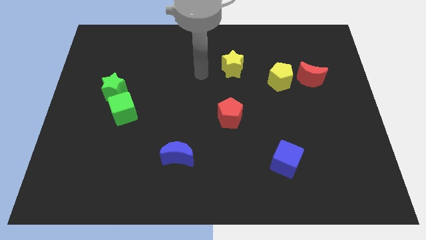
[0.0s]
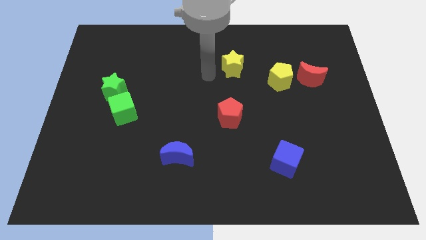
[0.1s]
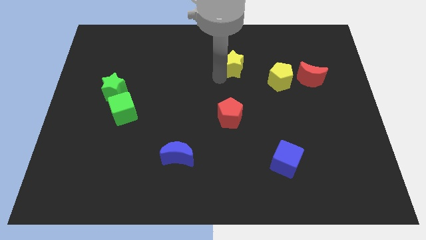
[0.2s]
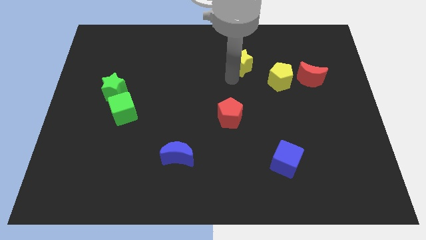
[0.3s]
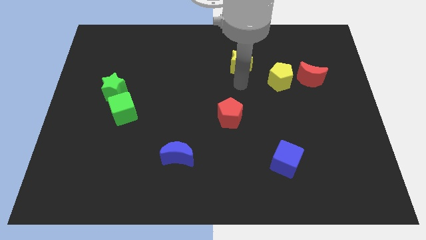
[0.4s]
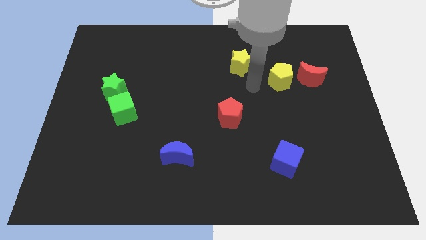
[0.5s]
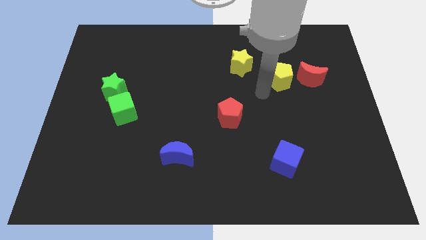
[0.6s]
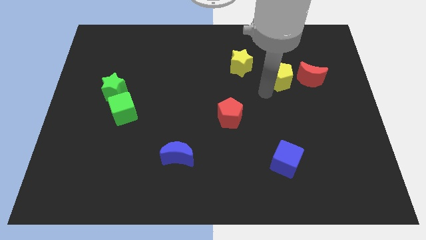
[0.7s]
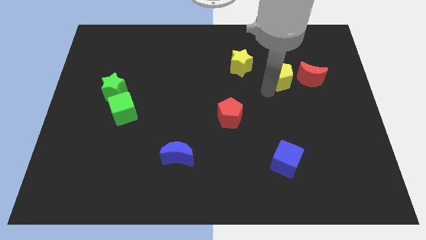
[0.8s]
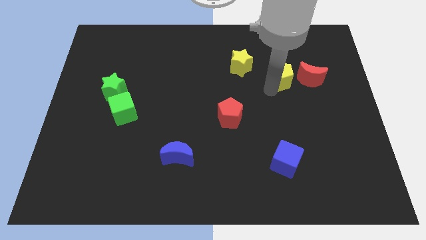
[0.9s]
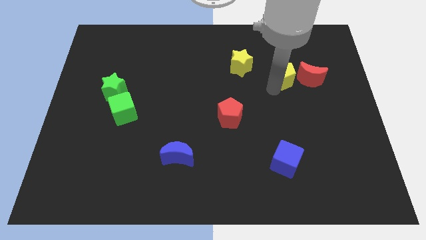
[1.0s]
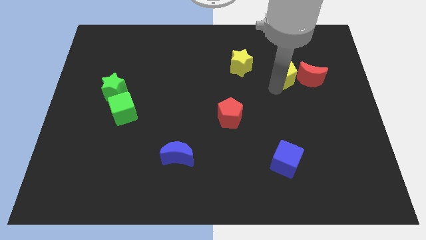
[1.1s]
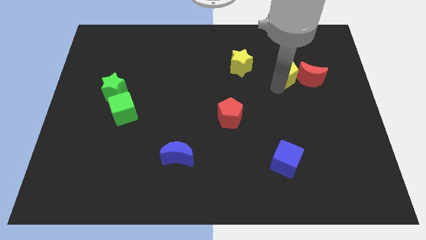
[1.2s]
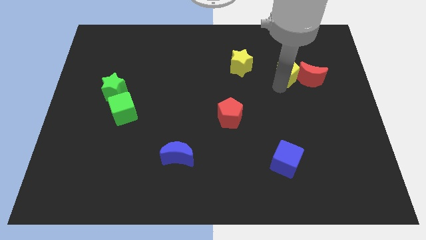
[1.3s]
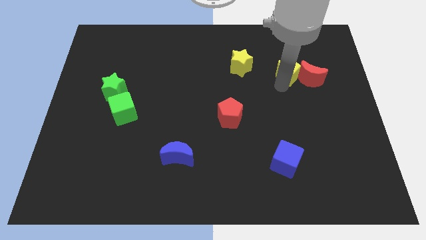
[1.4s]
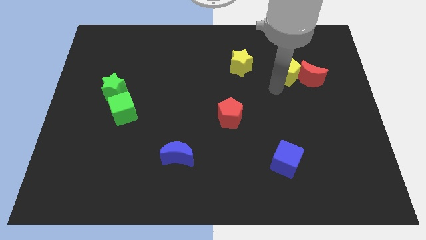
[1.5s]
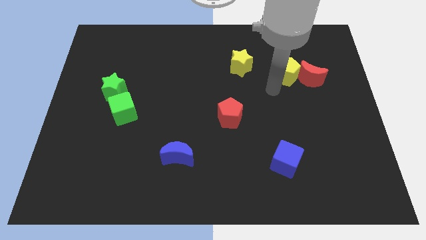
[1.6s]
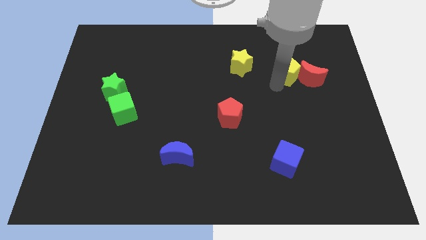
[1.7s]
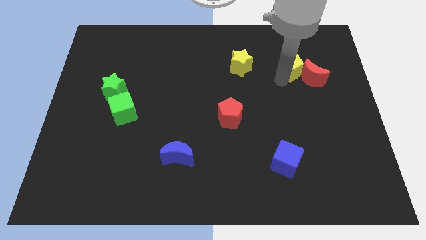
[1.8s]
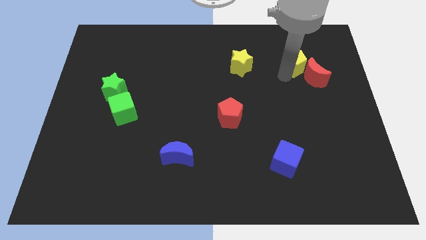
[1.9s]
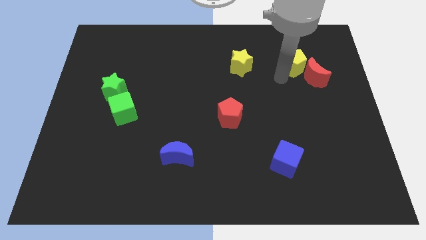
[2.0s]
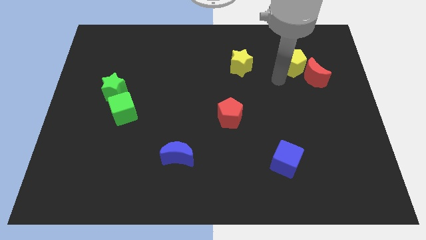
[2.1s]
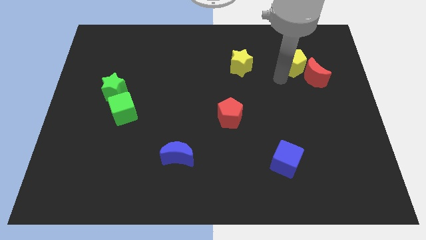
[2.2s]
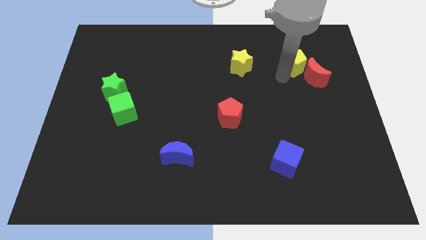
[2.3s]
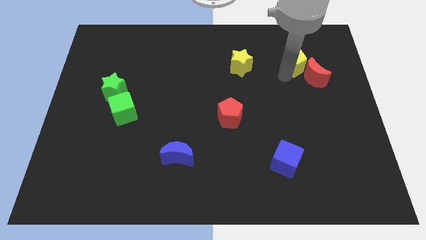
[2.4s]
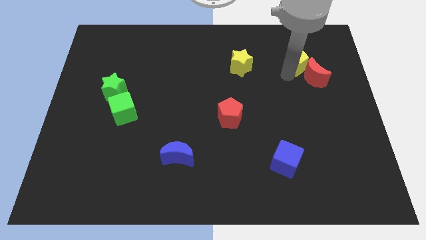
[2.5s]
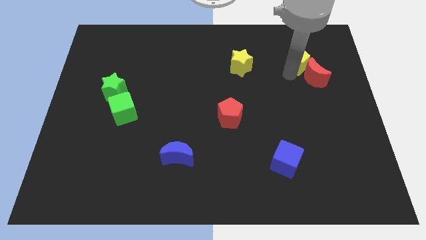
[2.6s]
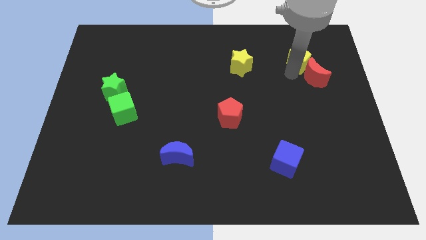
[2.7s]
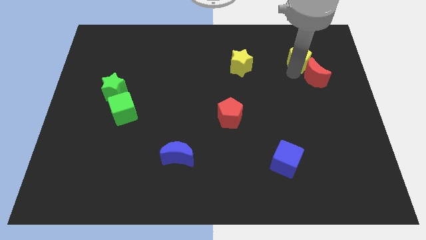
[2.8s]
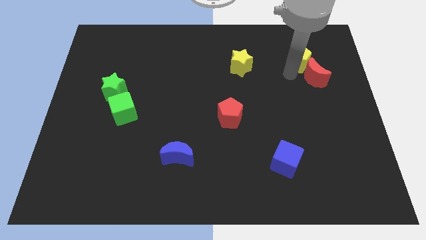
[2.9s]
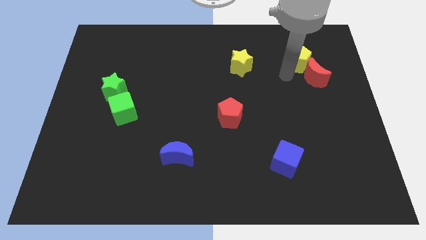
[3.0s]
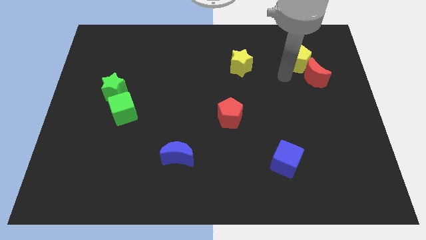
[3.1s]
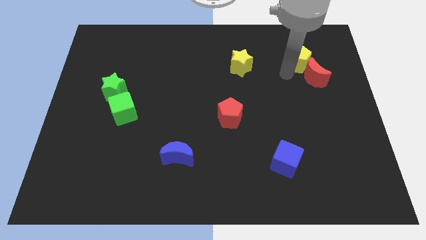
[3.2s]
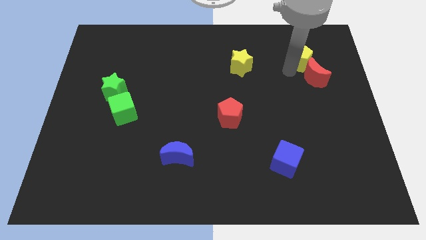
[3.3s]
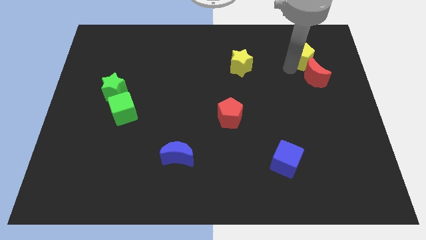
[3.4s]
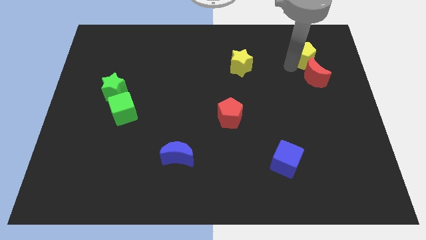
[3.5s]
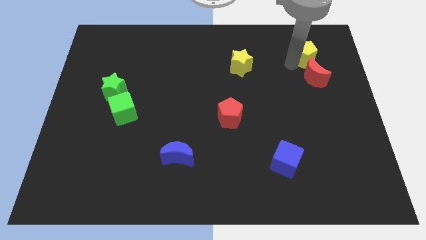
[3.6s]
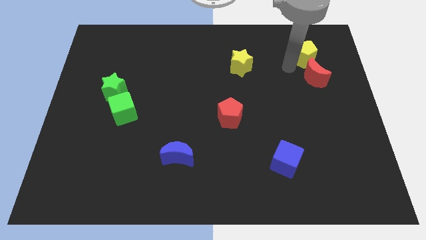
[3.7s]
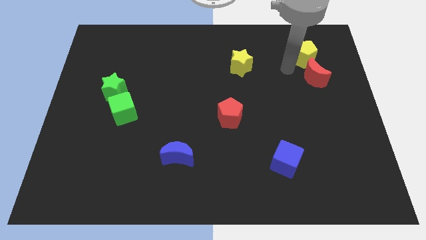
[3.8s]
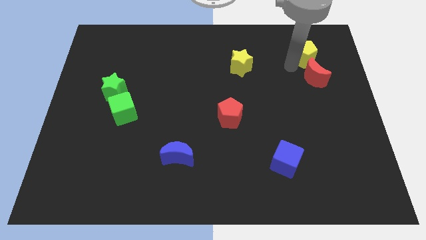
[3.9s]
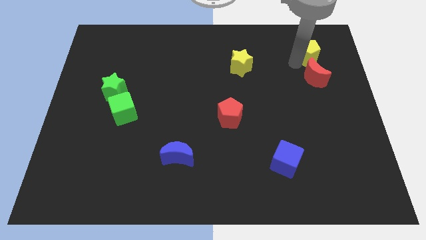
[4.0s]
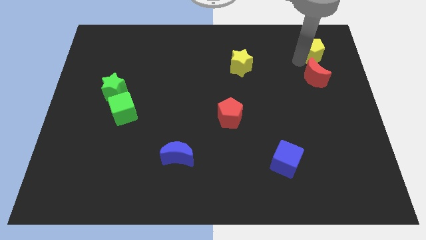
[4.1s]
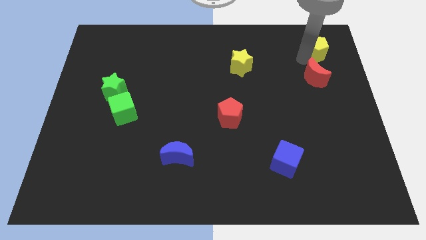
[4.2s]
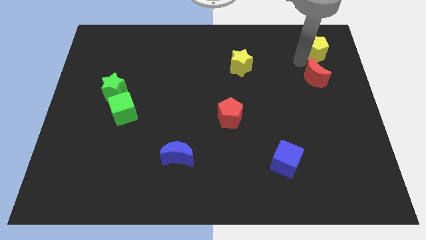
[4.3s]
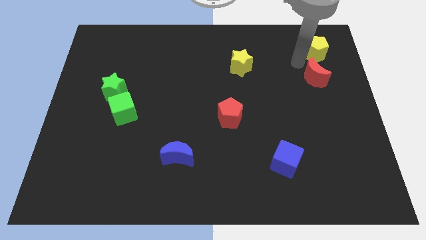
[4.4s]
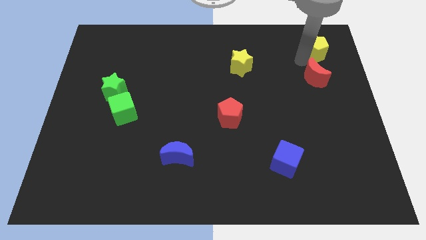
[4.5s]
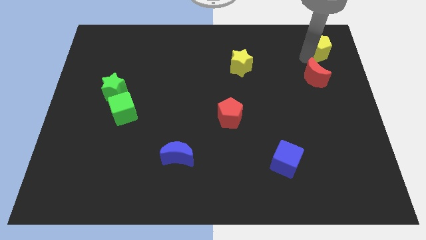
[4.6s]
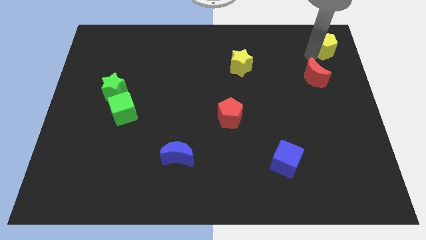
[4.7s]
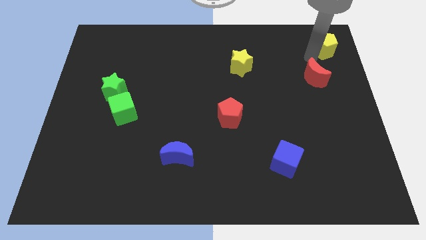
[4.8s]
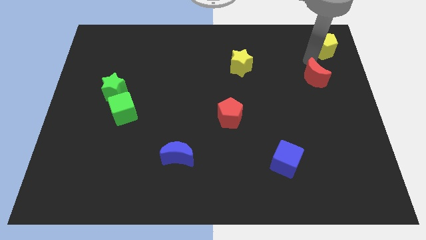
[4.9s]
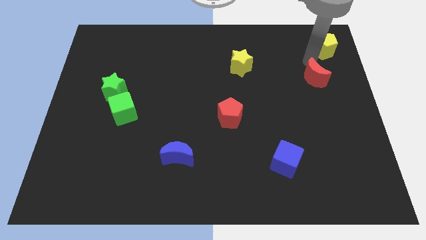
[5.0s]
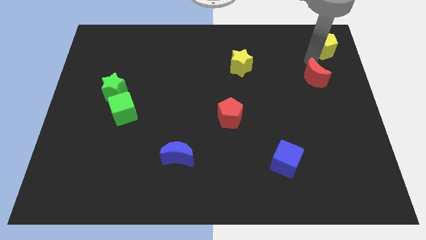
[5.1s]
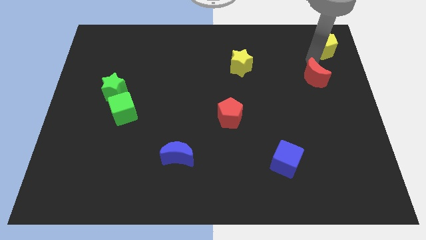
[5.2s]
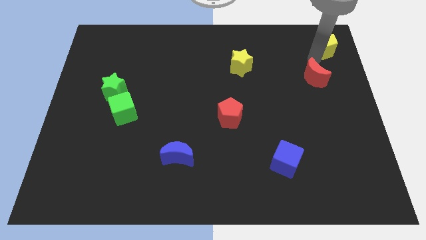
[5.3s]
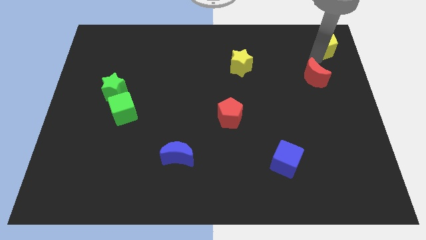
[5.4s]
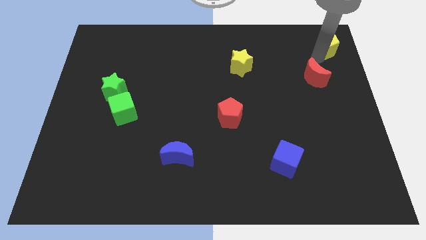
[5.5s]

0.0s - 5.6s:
put the yellow pentagon to the top right corner
